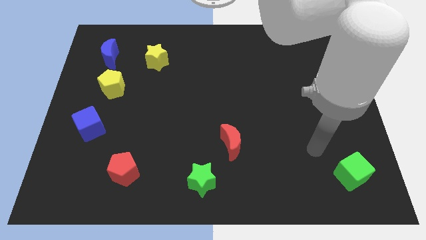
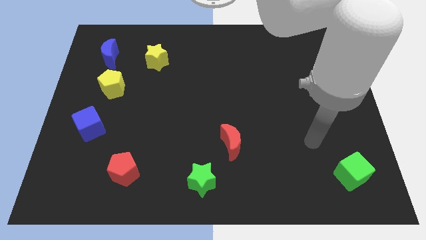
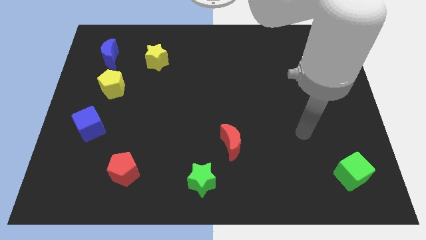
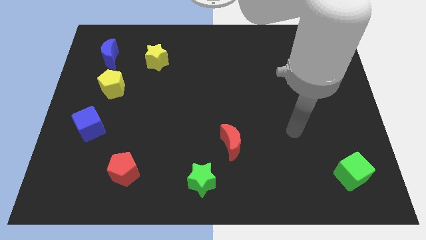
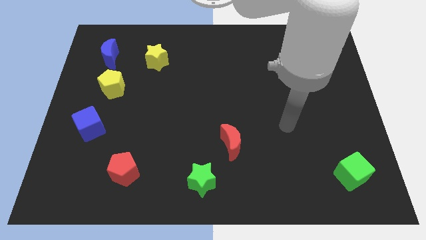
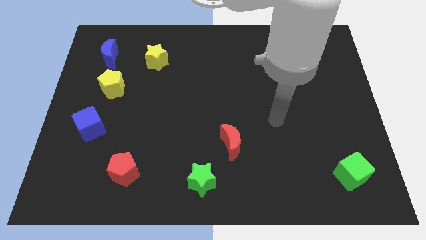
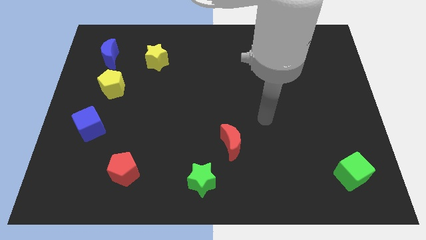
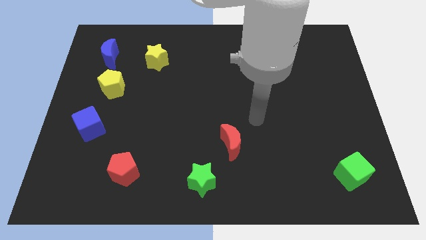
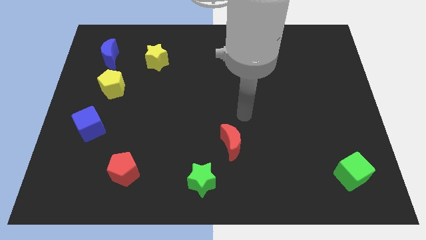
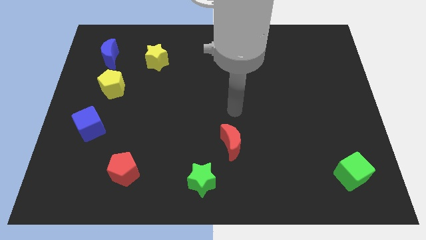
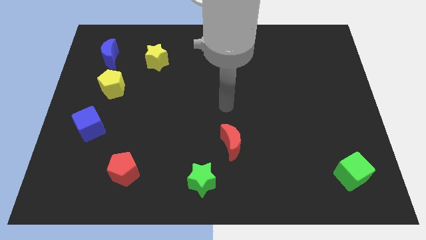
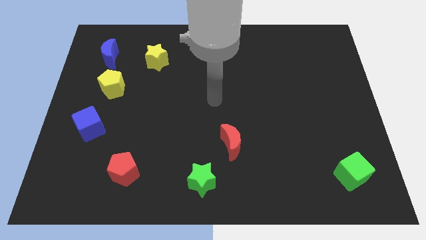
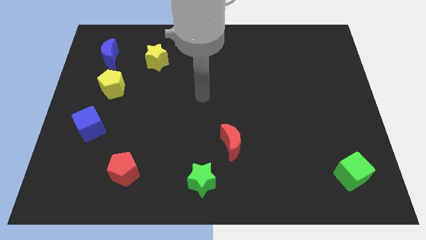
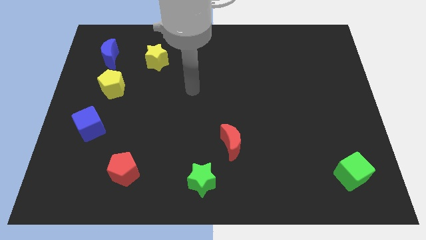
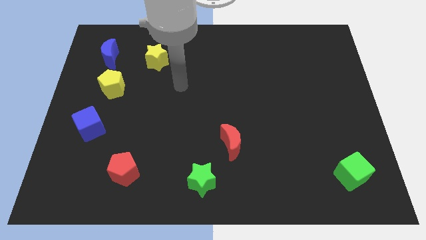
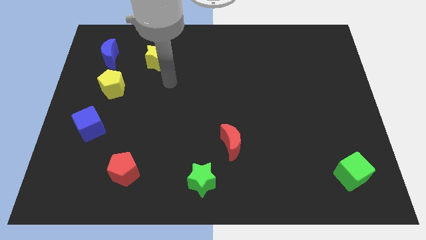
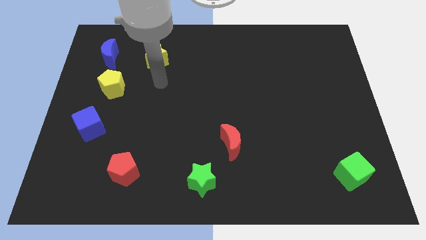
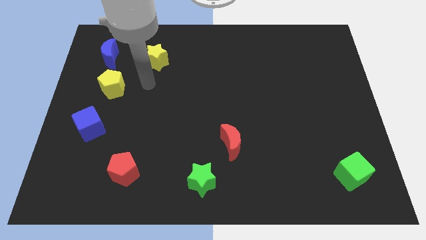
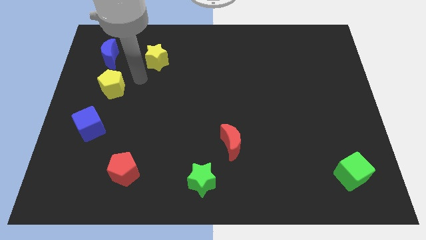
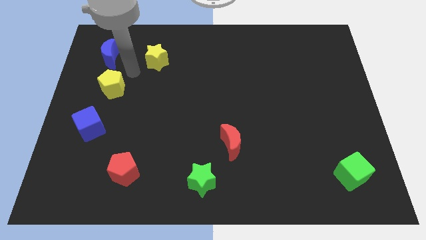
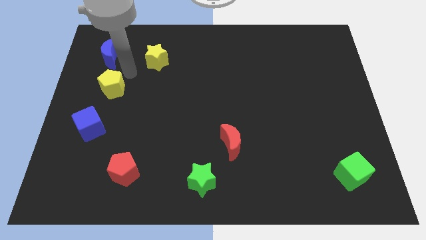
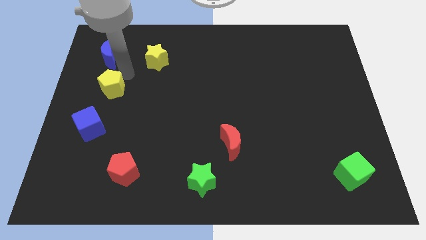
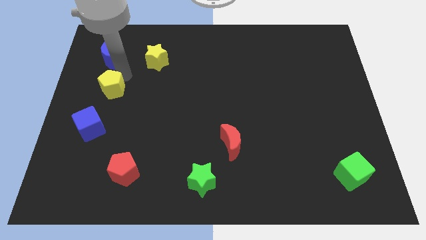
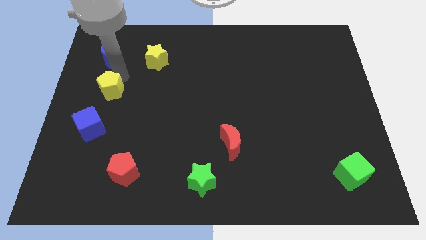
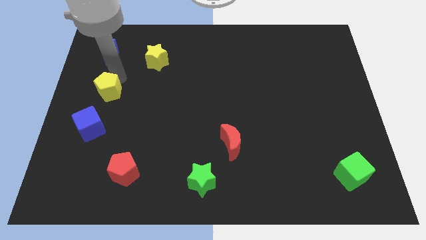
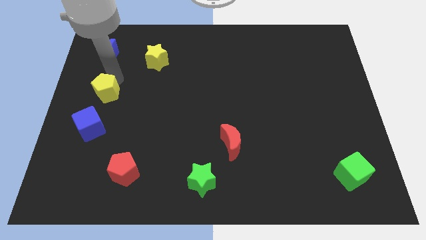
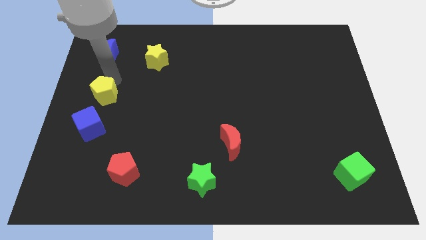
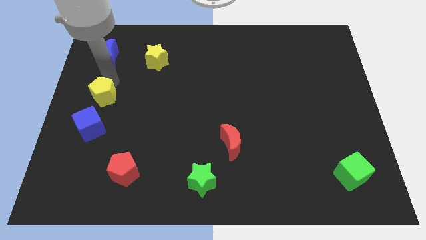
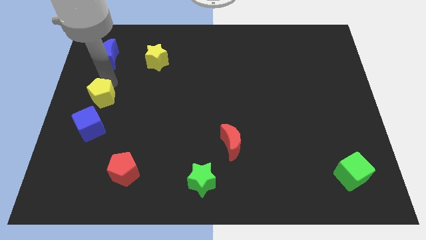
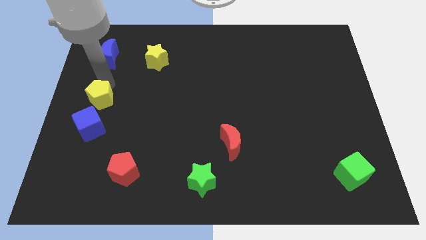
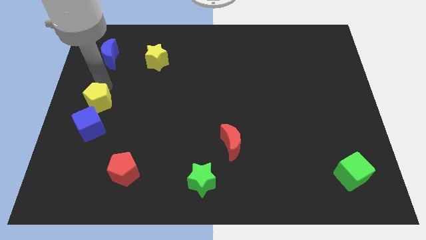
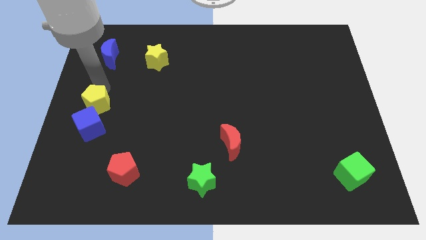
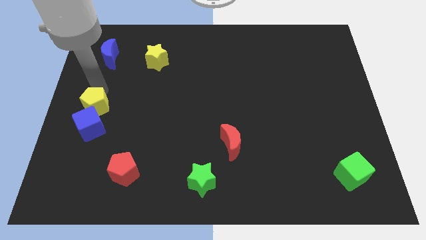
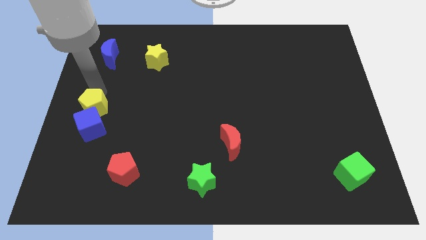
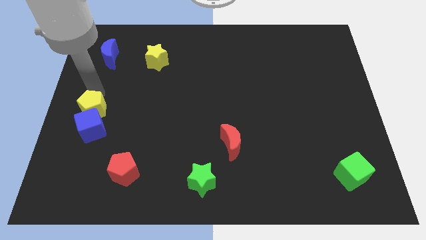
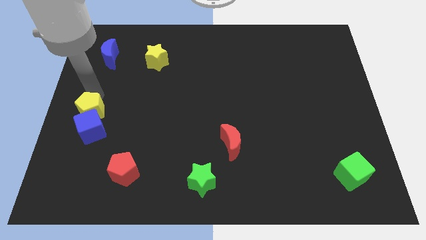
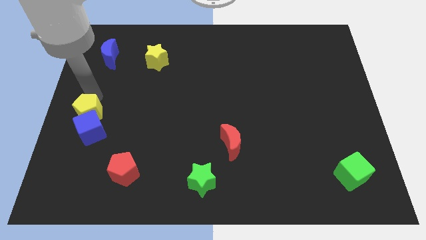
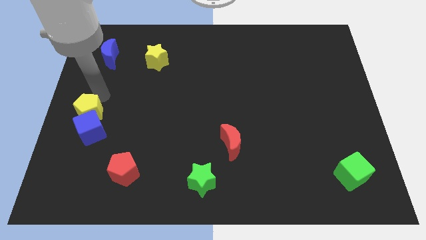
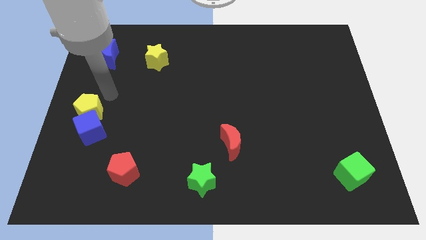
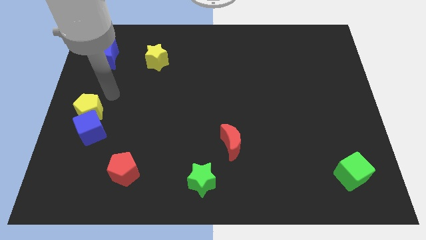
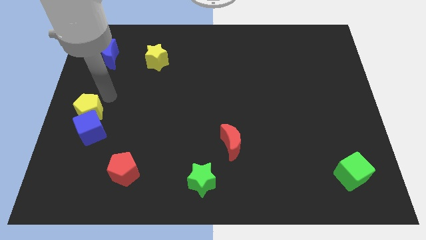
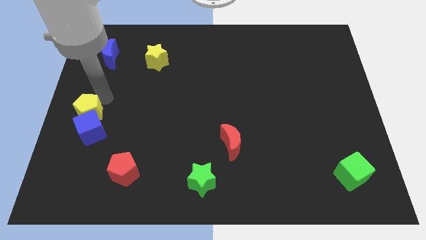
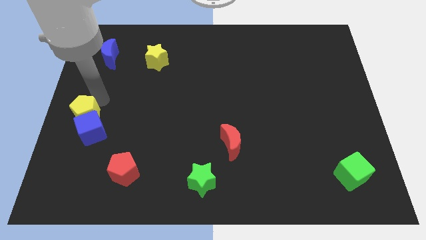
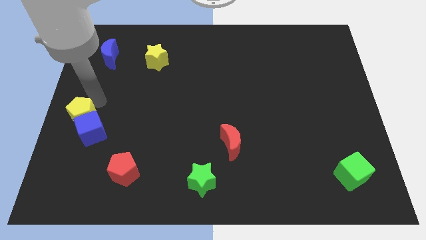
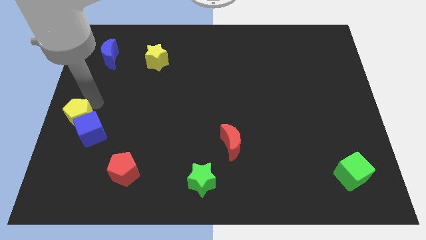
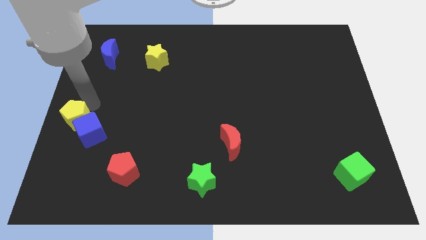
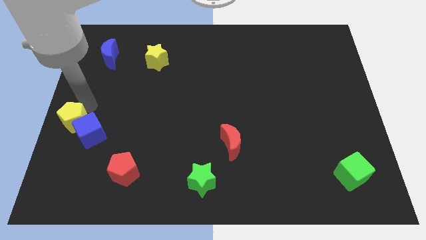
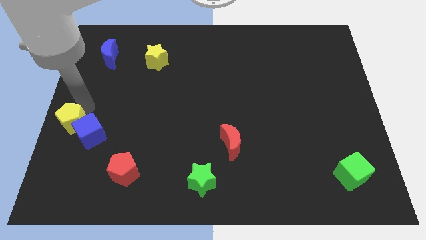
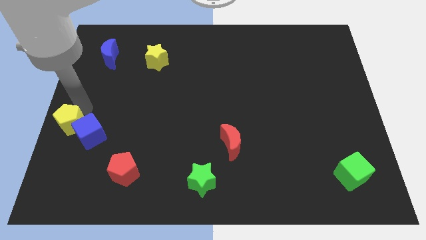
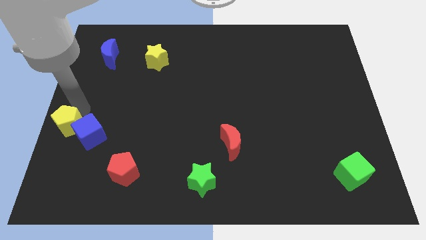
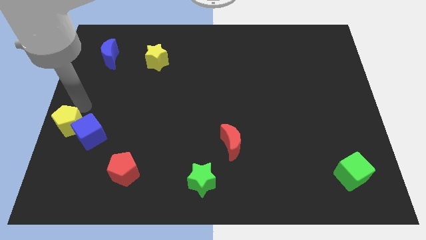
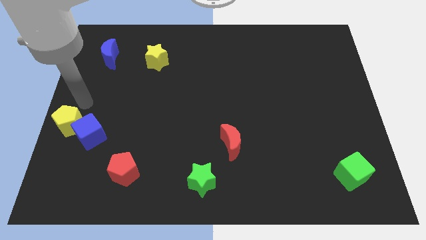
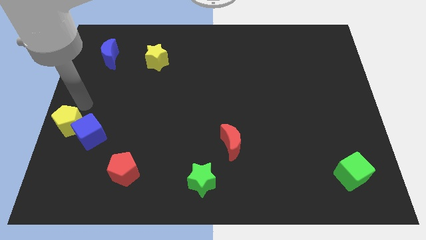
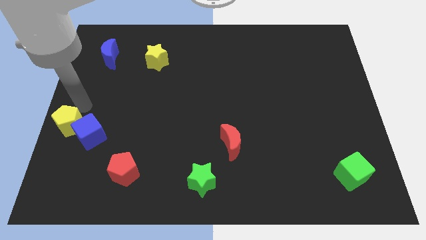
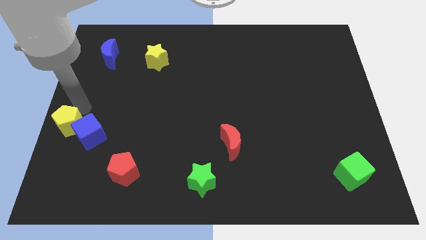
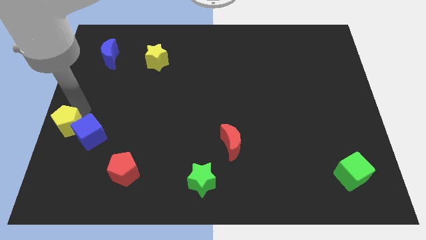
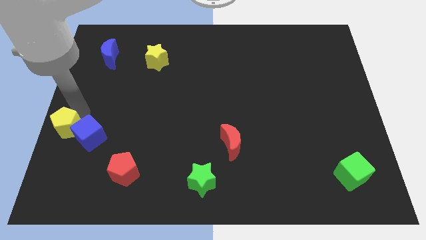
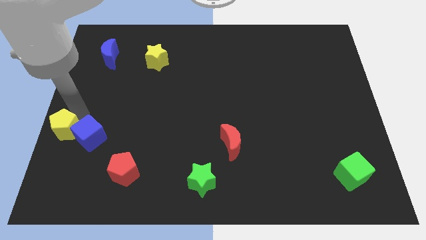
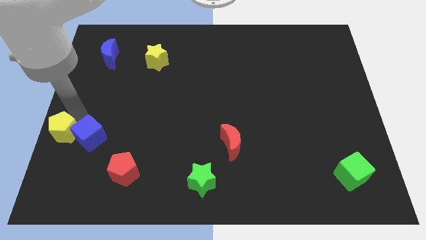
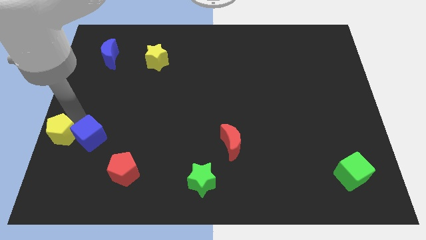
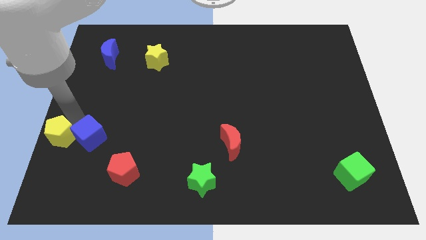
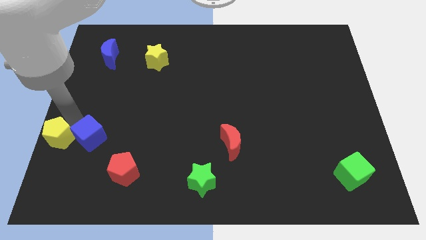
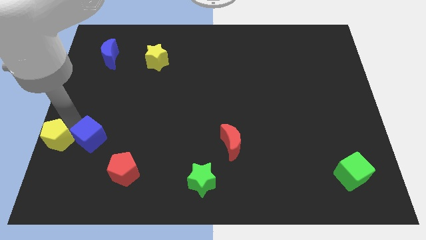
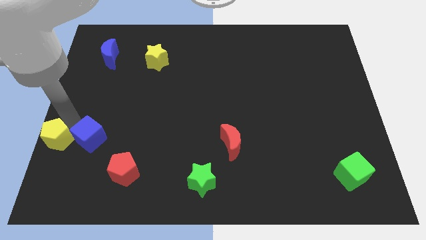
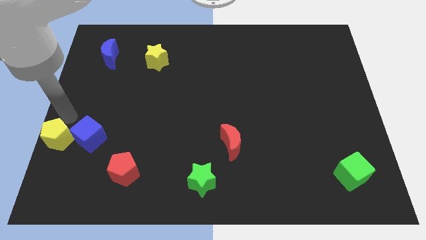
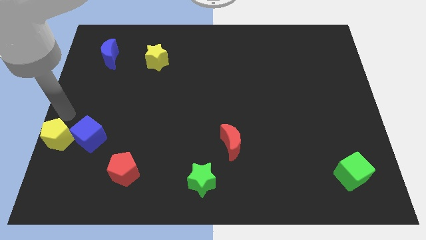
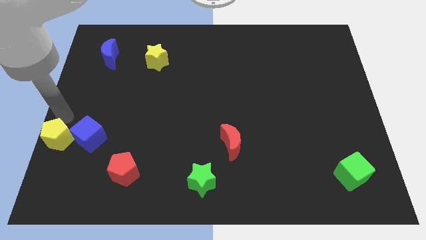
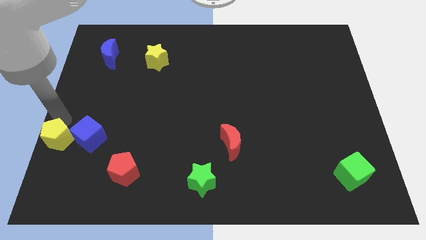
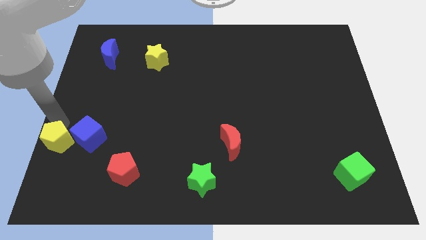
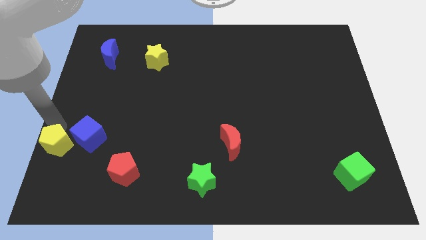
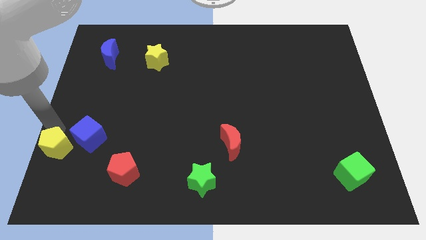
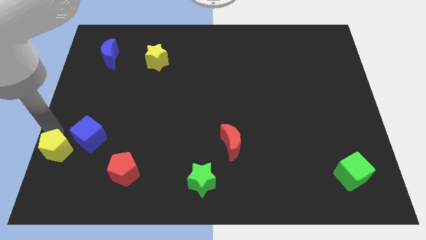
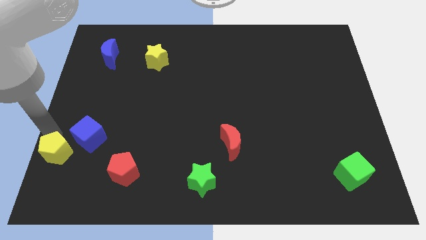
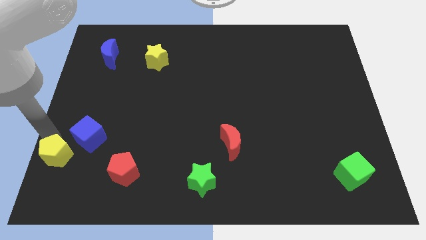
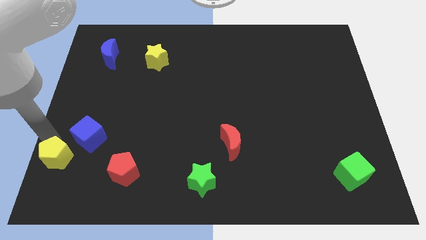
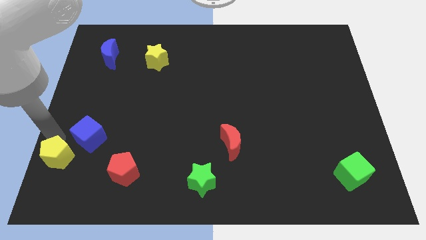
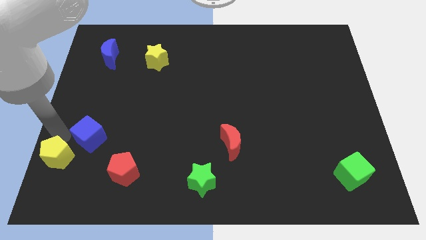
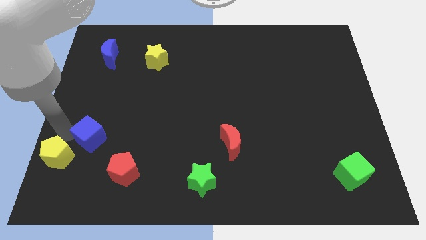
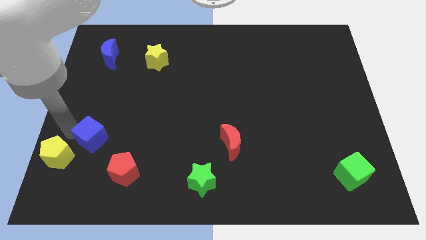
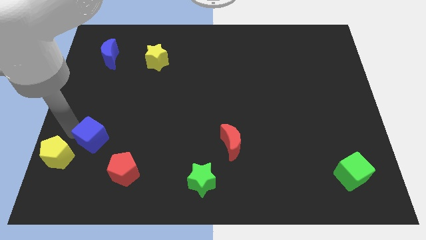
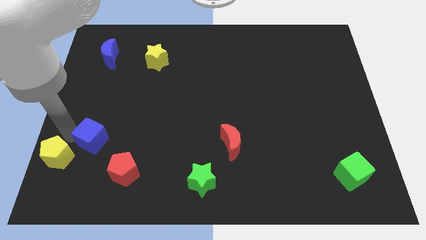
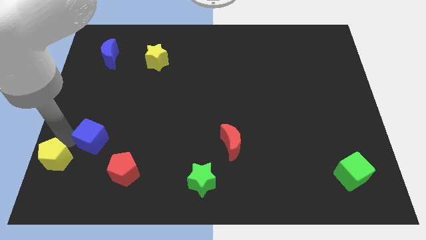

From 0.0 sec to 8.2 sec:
slide the yellow pentagon to the lower left corner
